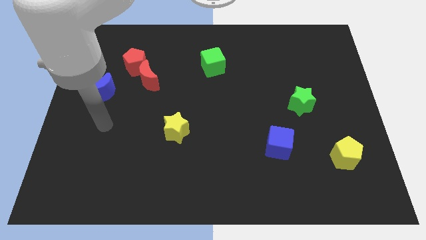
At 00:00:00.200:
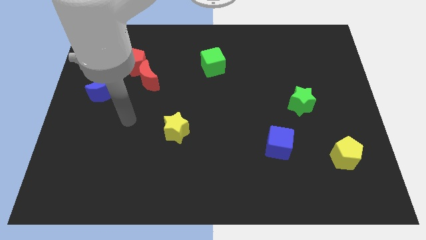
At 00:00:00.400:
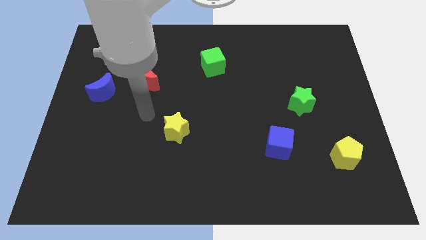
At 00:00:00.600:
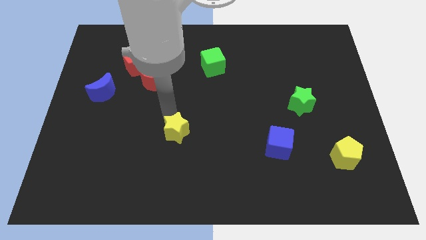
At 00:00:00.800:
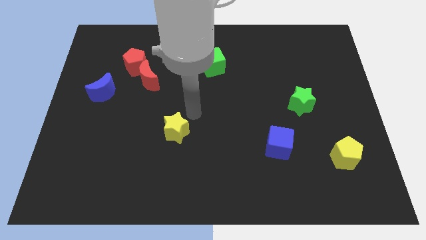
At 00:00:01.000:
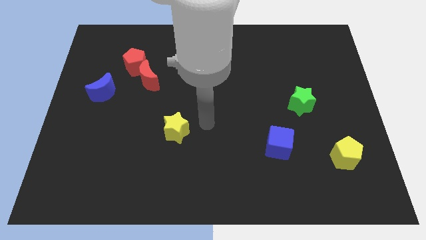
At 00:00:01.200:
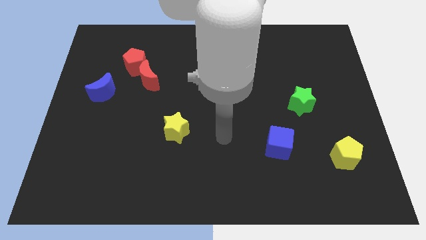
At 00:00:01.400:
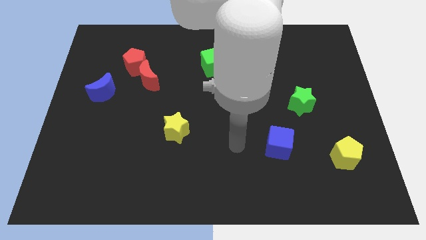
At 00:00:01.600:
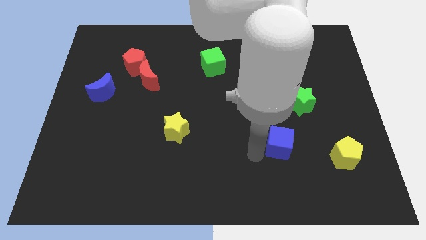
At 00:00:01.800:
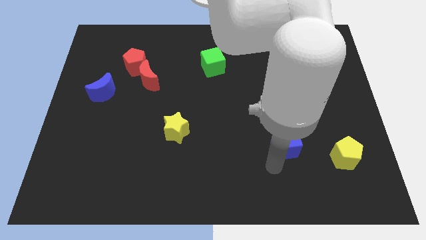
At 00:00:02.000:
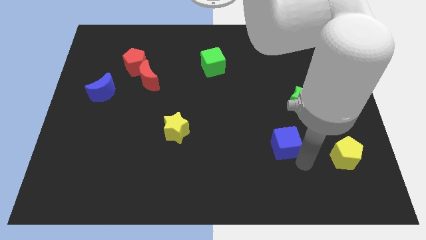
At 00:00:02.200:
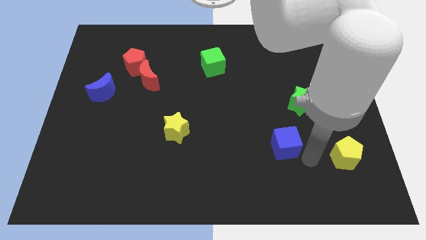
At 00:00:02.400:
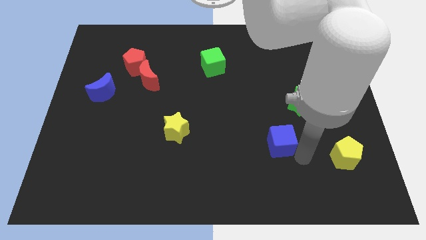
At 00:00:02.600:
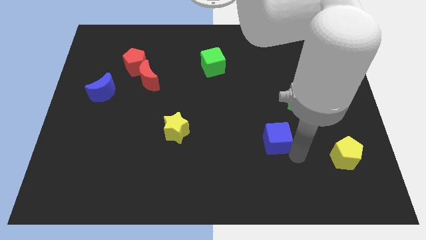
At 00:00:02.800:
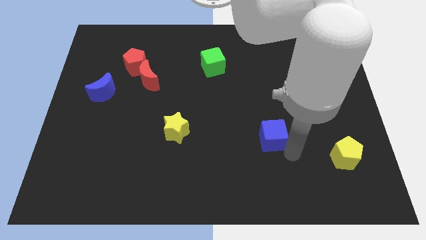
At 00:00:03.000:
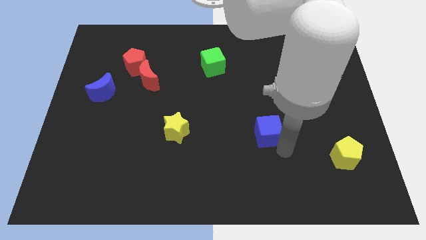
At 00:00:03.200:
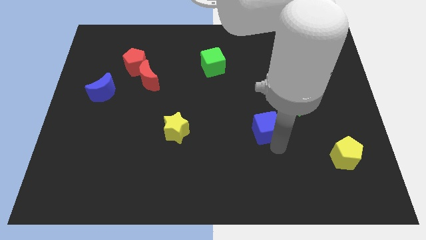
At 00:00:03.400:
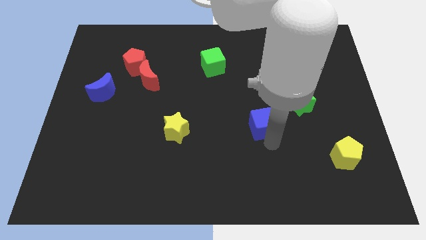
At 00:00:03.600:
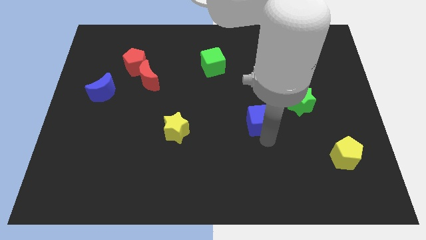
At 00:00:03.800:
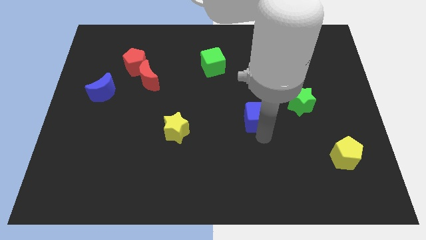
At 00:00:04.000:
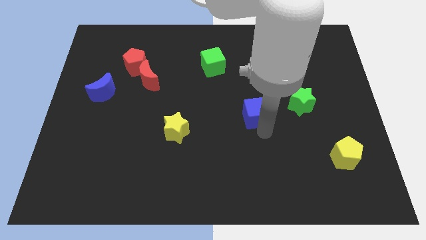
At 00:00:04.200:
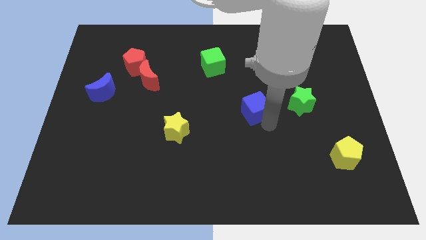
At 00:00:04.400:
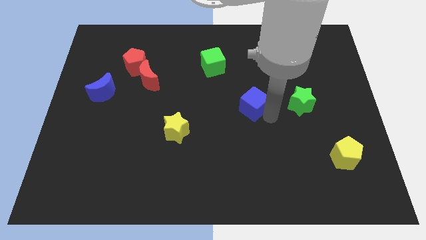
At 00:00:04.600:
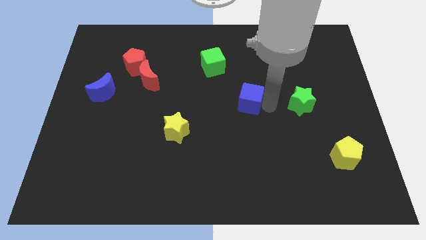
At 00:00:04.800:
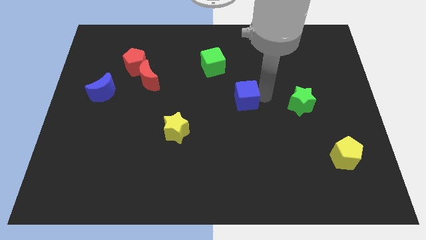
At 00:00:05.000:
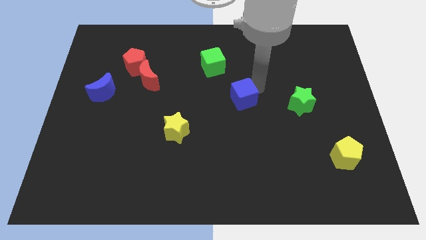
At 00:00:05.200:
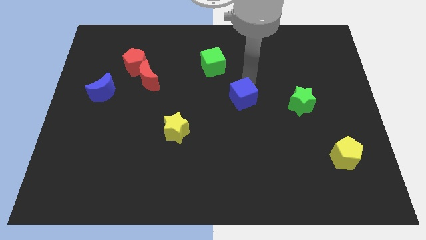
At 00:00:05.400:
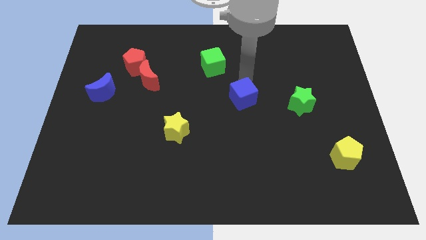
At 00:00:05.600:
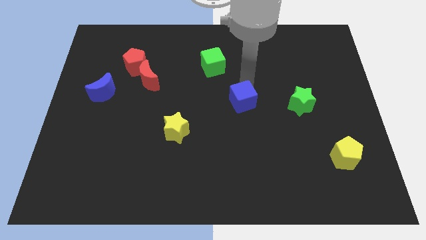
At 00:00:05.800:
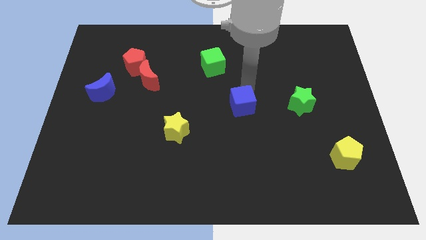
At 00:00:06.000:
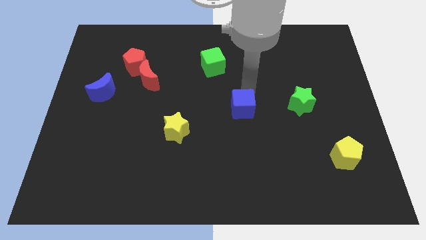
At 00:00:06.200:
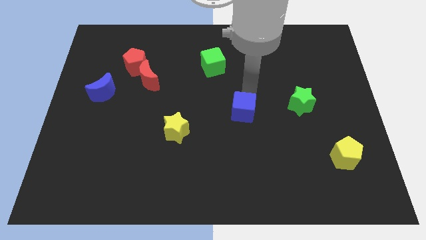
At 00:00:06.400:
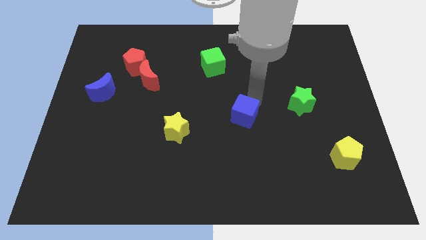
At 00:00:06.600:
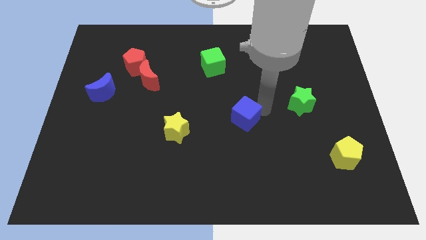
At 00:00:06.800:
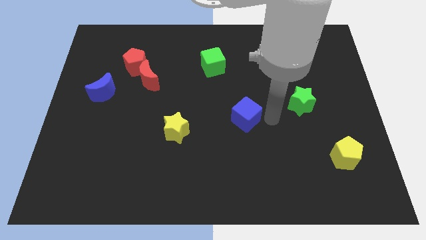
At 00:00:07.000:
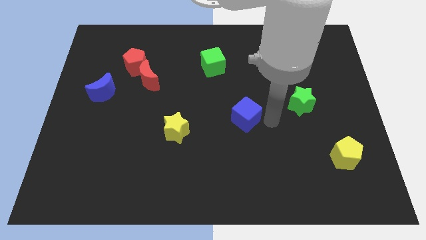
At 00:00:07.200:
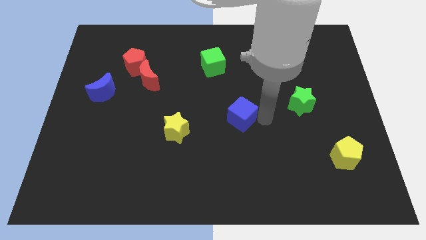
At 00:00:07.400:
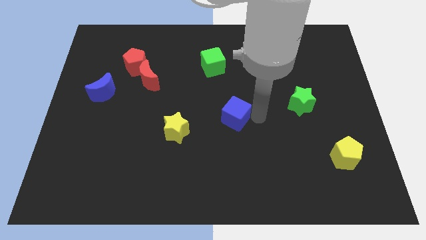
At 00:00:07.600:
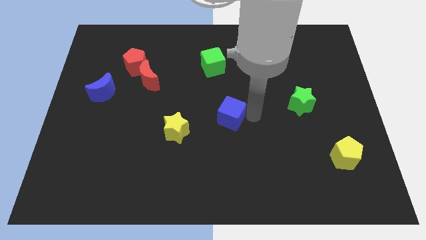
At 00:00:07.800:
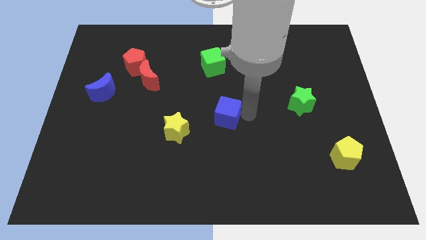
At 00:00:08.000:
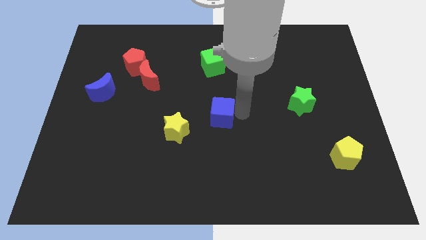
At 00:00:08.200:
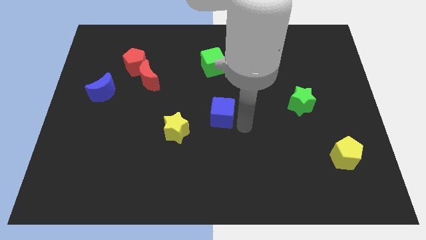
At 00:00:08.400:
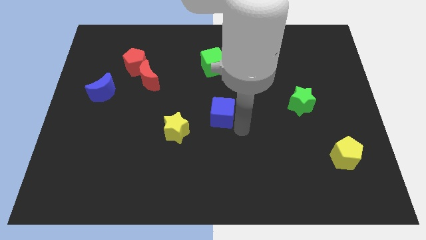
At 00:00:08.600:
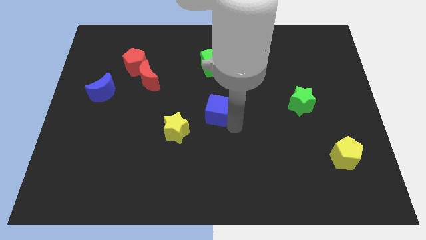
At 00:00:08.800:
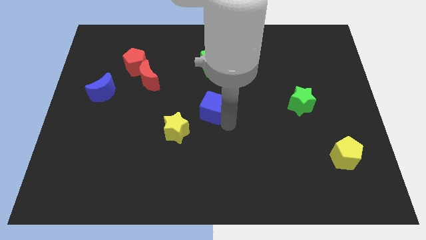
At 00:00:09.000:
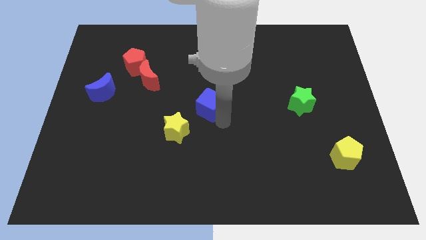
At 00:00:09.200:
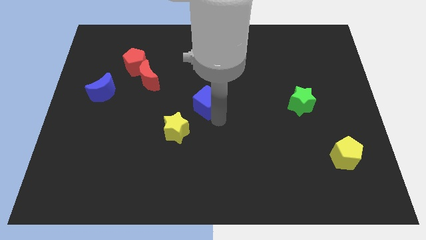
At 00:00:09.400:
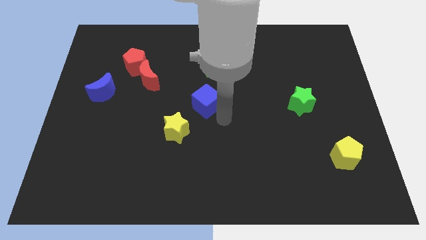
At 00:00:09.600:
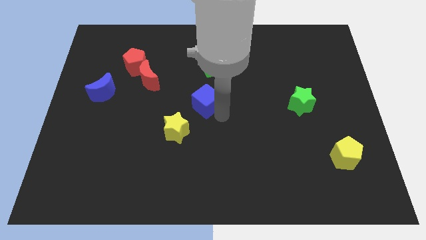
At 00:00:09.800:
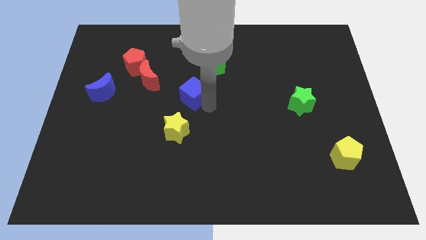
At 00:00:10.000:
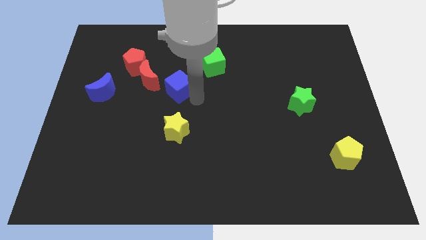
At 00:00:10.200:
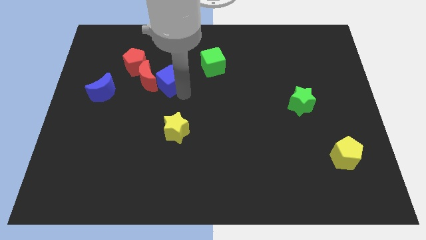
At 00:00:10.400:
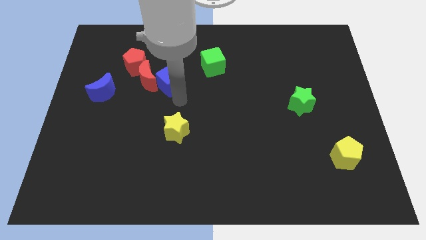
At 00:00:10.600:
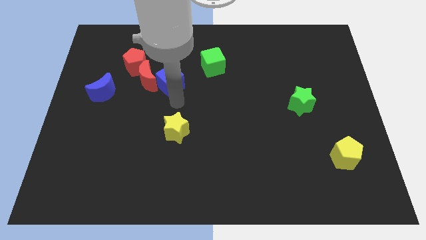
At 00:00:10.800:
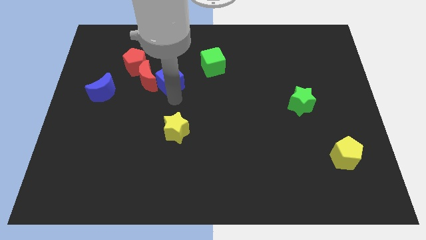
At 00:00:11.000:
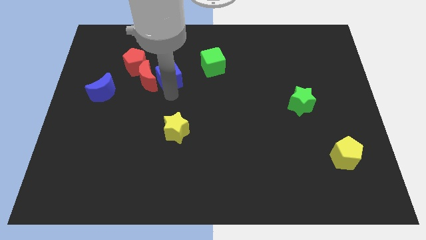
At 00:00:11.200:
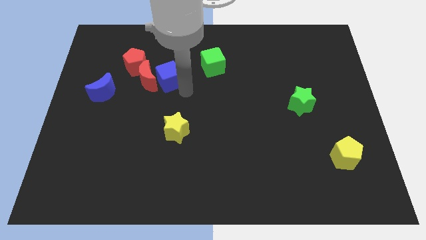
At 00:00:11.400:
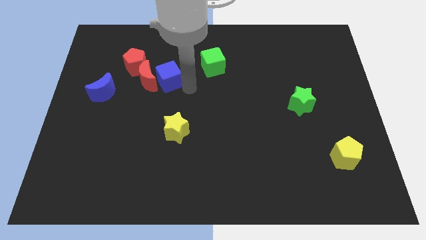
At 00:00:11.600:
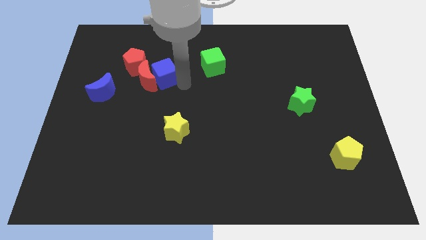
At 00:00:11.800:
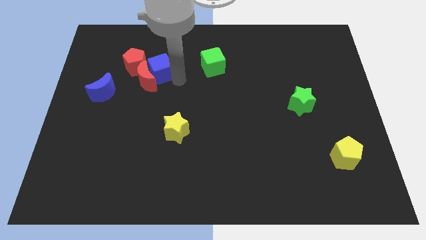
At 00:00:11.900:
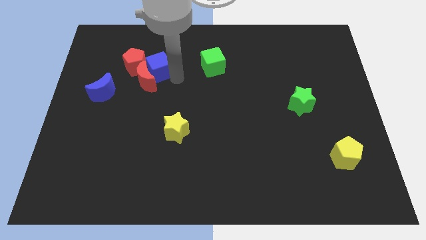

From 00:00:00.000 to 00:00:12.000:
put the blue cube close to the red pentagon

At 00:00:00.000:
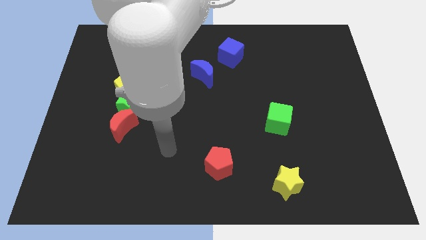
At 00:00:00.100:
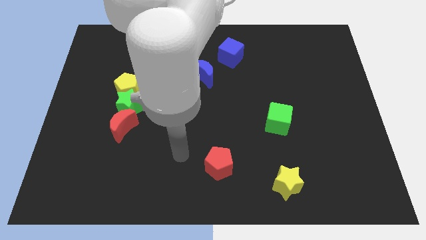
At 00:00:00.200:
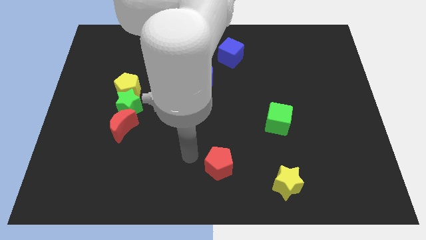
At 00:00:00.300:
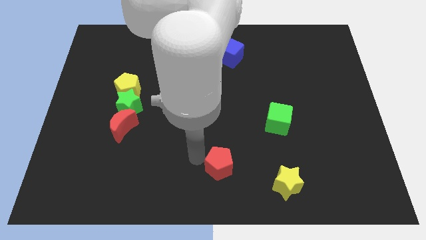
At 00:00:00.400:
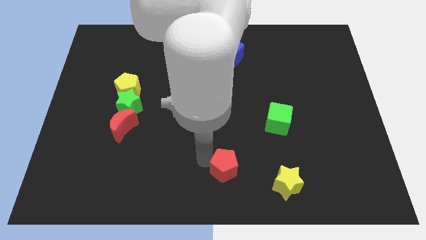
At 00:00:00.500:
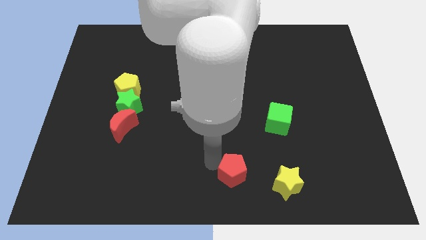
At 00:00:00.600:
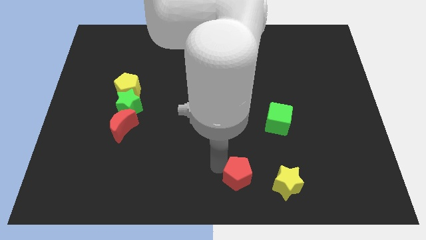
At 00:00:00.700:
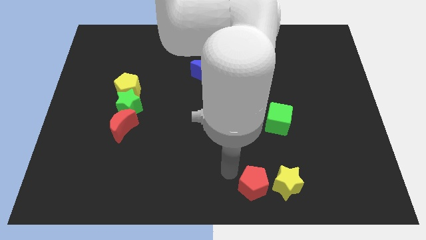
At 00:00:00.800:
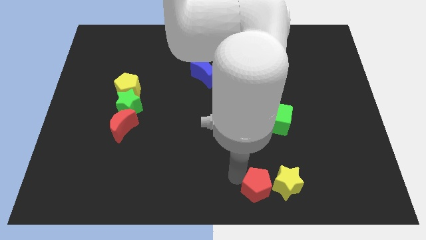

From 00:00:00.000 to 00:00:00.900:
move the red pentagon to the yellow star

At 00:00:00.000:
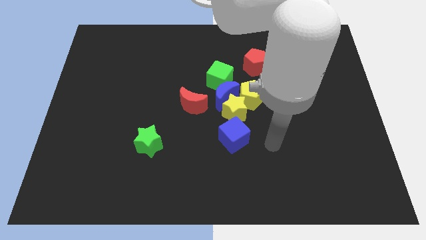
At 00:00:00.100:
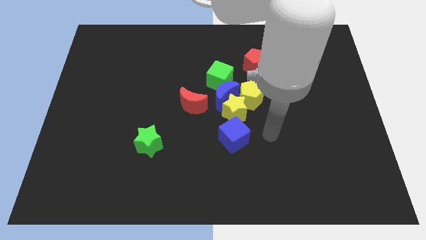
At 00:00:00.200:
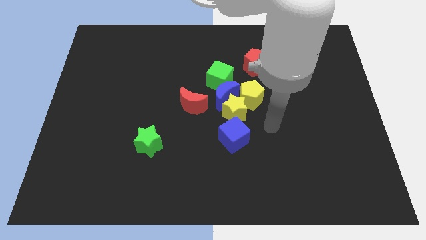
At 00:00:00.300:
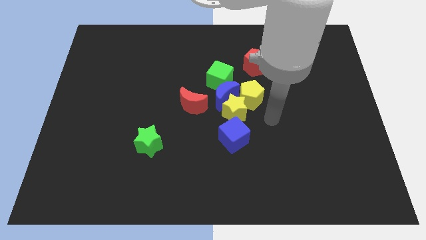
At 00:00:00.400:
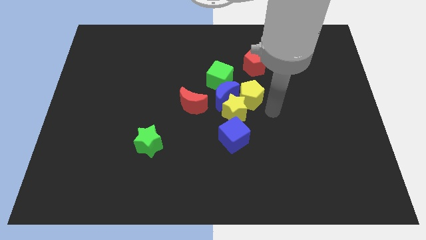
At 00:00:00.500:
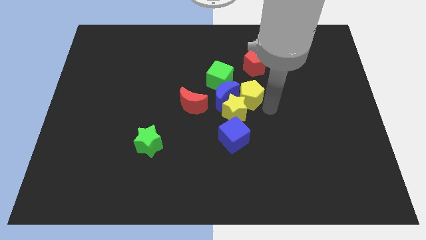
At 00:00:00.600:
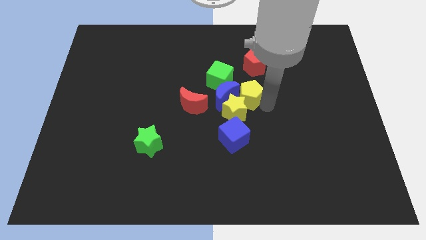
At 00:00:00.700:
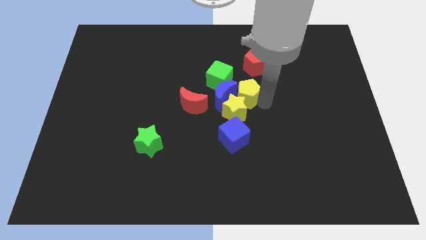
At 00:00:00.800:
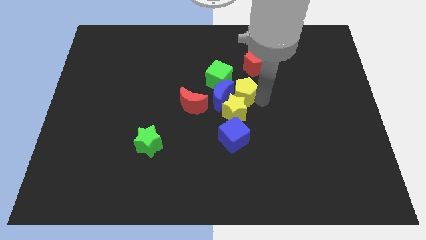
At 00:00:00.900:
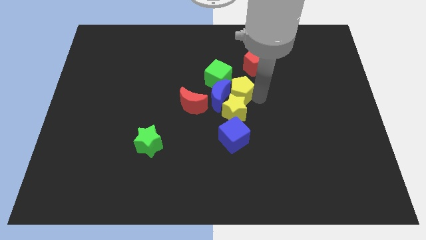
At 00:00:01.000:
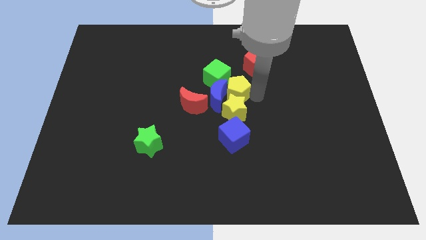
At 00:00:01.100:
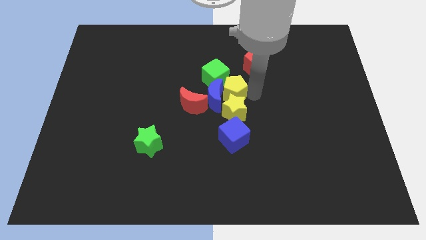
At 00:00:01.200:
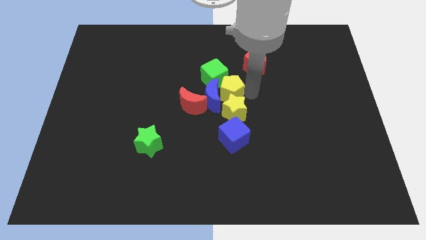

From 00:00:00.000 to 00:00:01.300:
put the yellow pentagon close to the green cube
